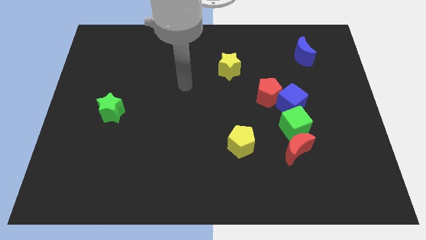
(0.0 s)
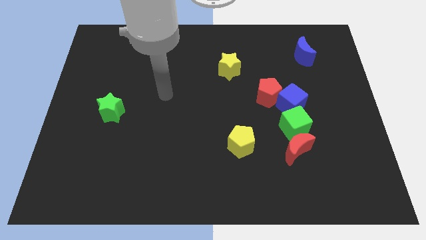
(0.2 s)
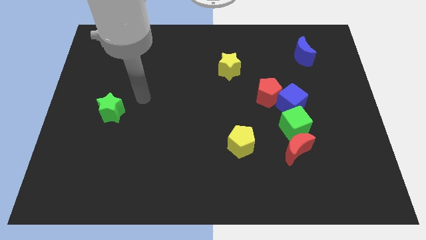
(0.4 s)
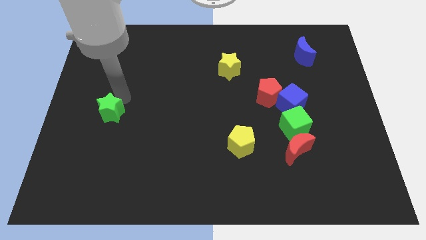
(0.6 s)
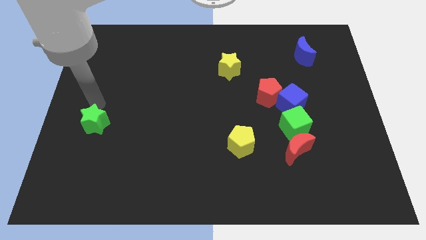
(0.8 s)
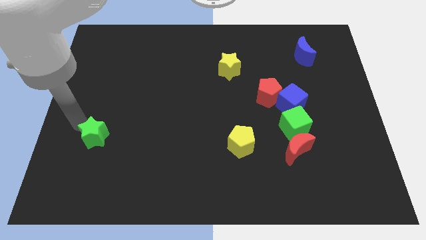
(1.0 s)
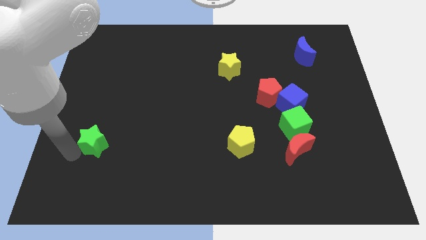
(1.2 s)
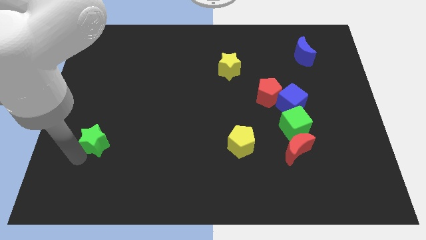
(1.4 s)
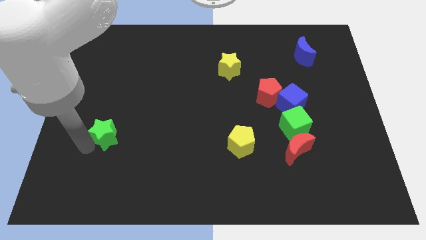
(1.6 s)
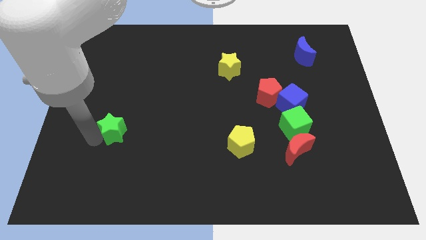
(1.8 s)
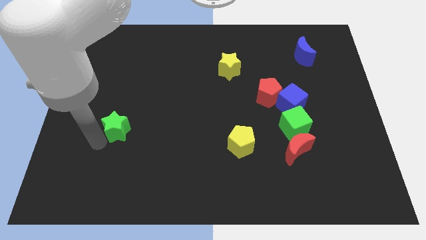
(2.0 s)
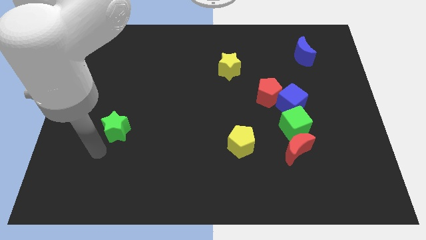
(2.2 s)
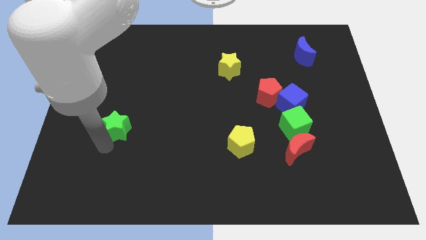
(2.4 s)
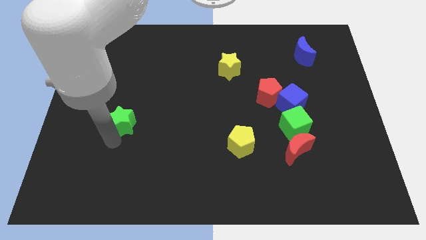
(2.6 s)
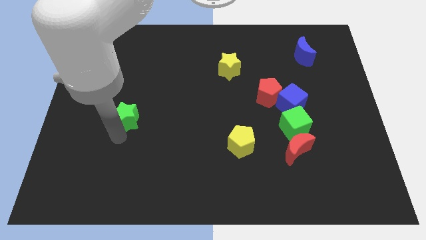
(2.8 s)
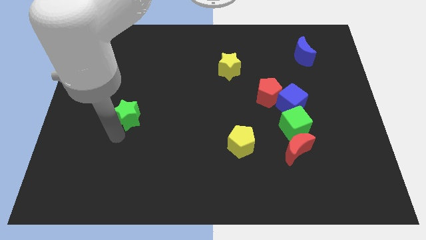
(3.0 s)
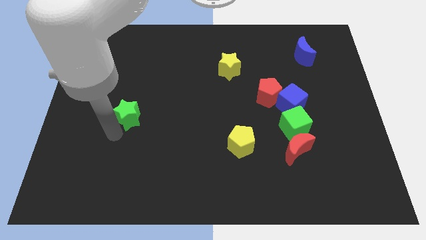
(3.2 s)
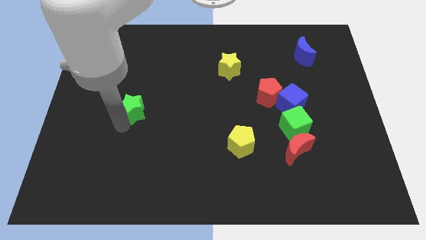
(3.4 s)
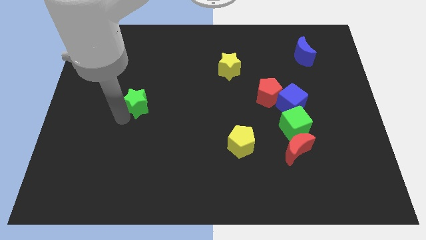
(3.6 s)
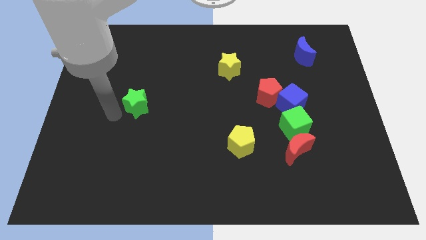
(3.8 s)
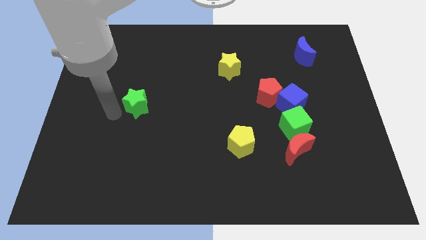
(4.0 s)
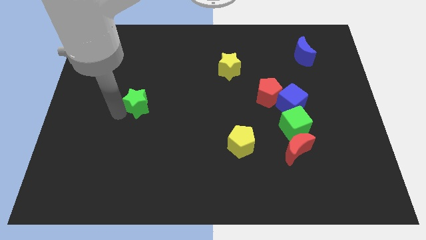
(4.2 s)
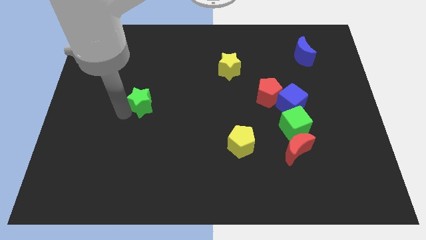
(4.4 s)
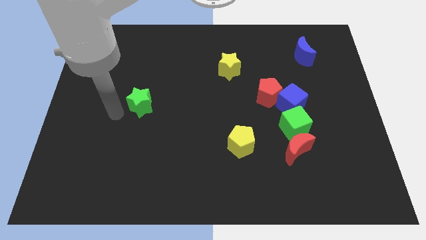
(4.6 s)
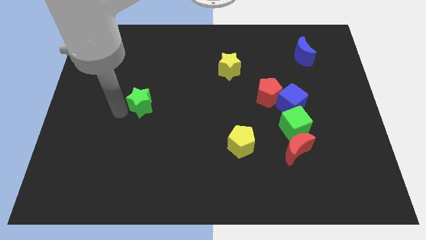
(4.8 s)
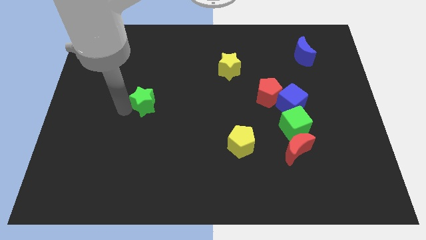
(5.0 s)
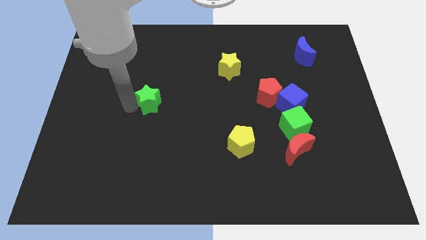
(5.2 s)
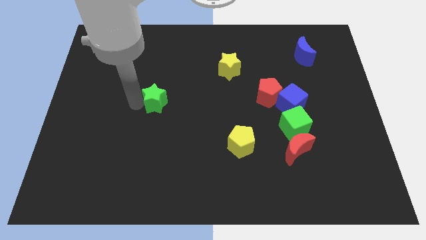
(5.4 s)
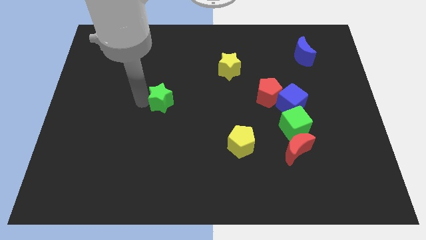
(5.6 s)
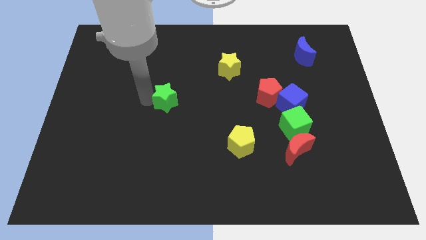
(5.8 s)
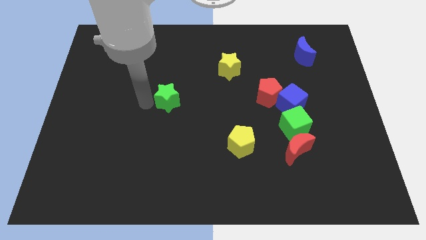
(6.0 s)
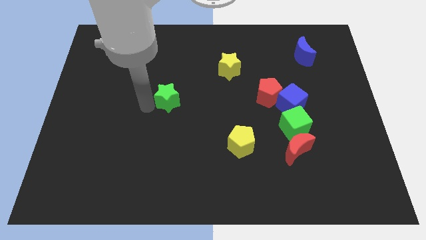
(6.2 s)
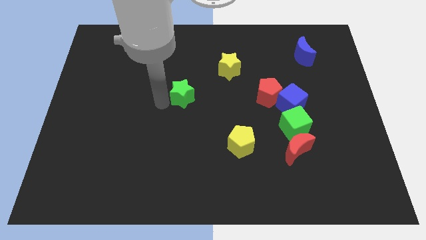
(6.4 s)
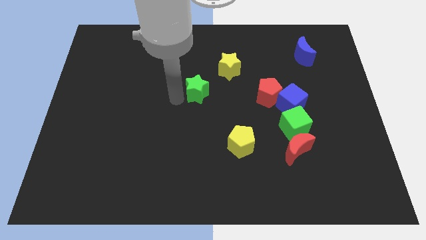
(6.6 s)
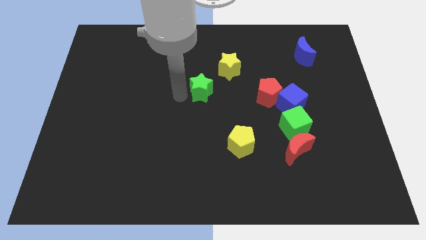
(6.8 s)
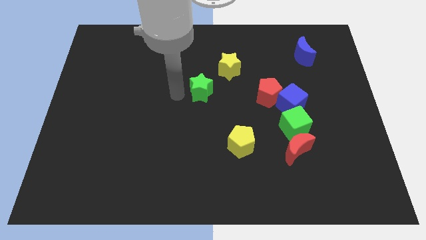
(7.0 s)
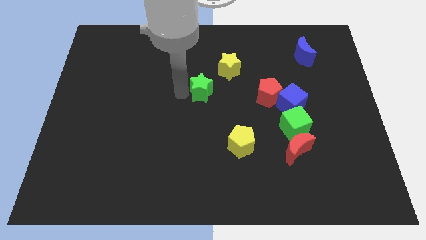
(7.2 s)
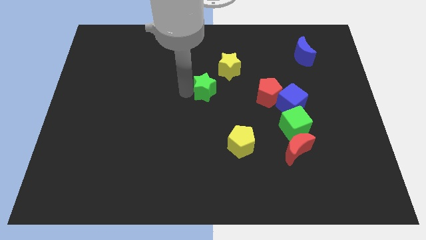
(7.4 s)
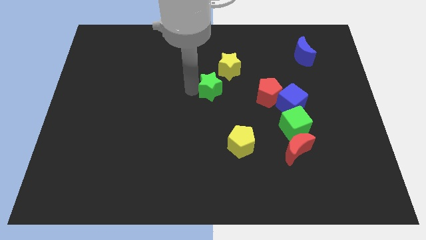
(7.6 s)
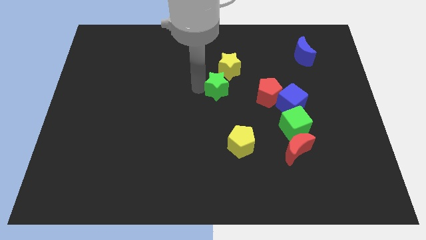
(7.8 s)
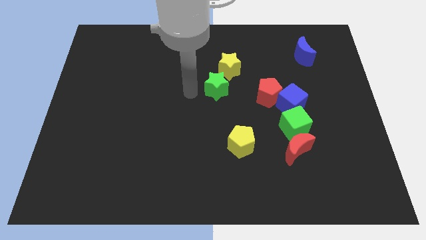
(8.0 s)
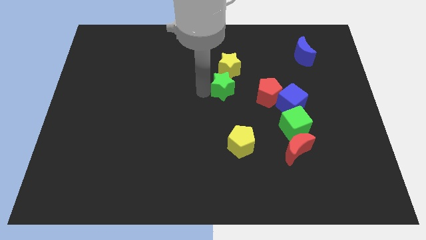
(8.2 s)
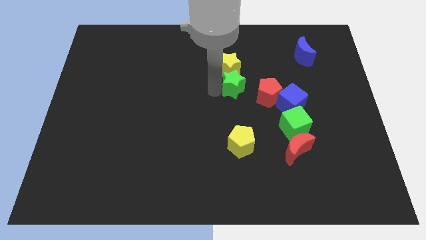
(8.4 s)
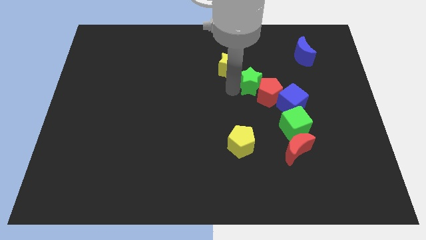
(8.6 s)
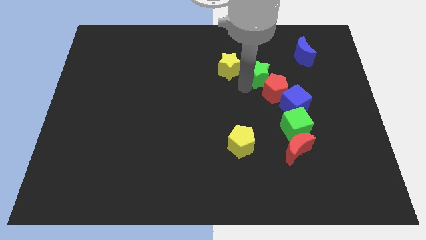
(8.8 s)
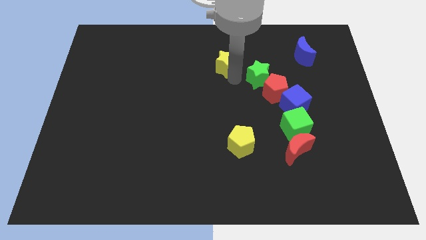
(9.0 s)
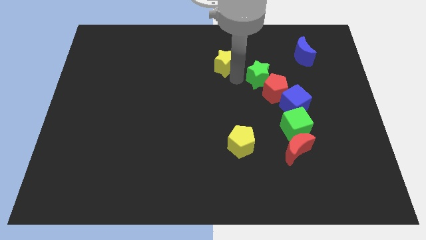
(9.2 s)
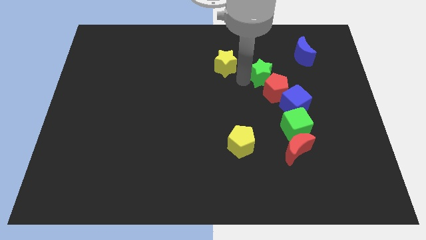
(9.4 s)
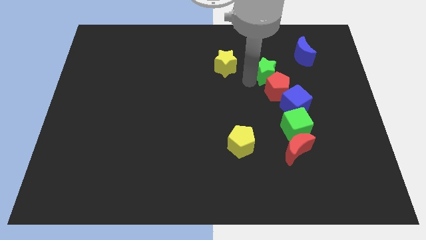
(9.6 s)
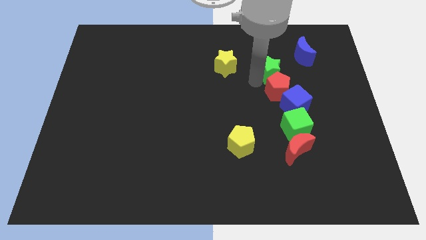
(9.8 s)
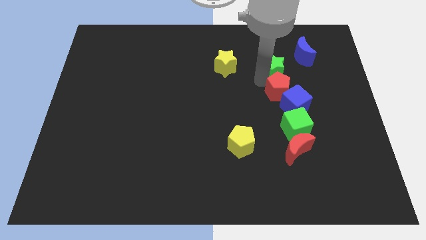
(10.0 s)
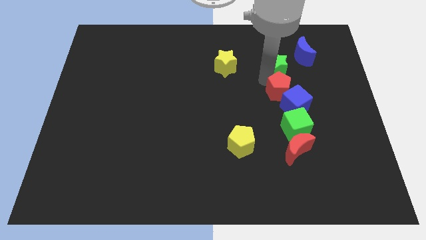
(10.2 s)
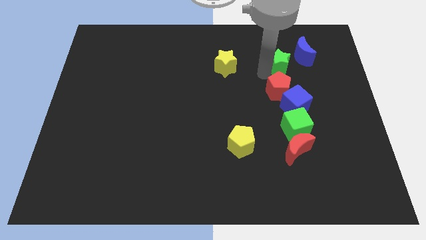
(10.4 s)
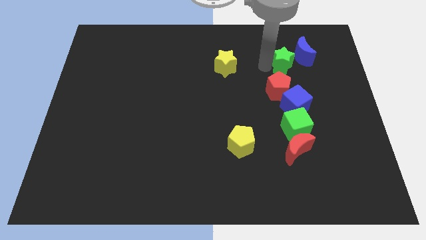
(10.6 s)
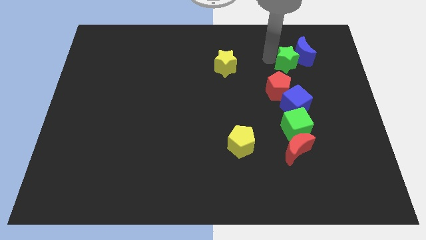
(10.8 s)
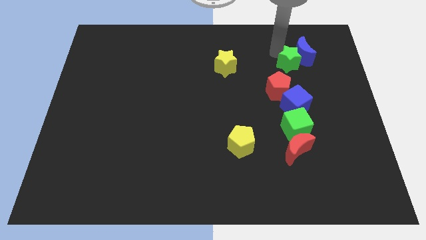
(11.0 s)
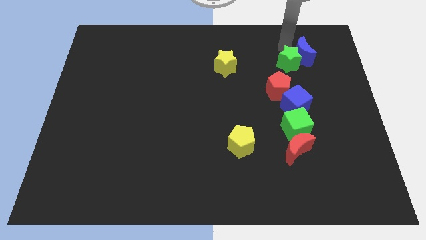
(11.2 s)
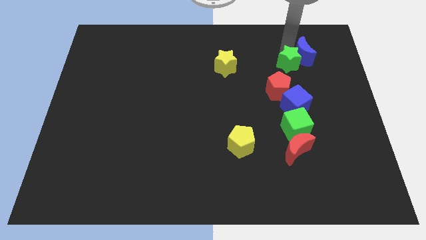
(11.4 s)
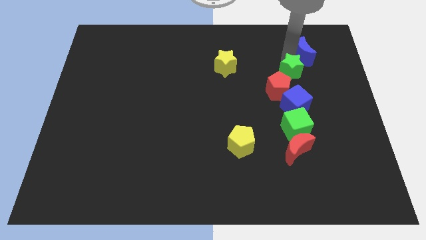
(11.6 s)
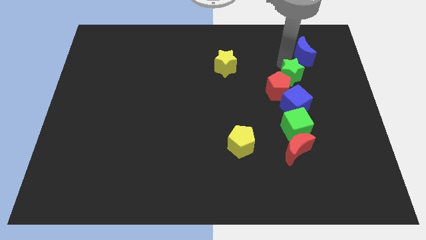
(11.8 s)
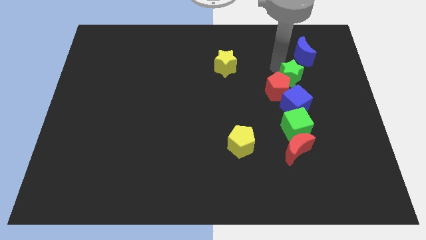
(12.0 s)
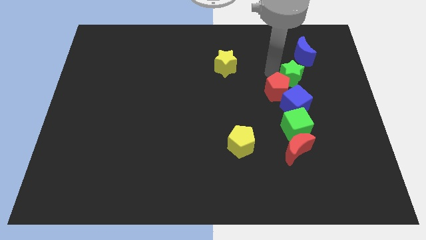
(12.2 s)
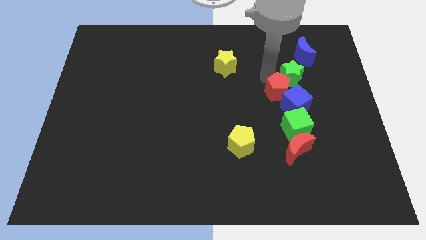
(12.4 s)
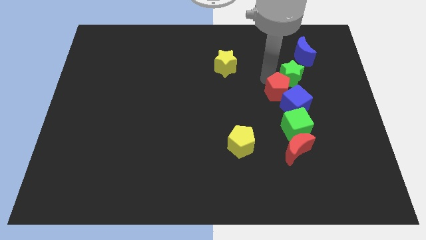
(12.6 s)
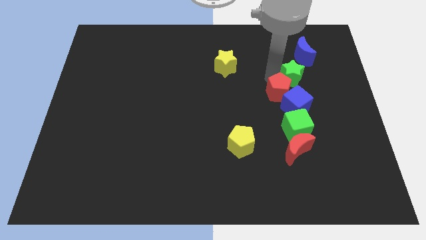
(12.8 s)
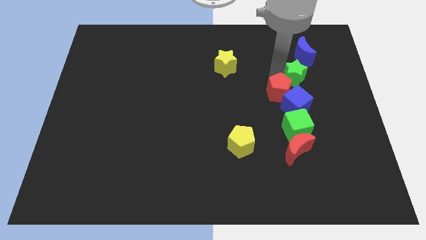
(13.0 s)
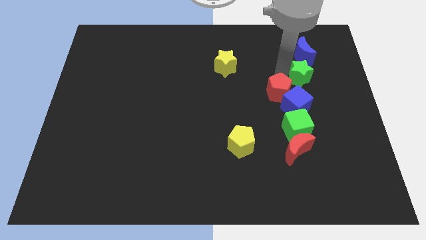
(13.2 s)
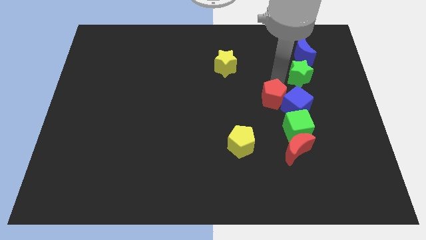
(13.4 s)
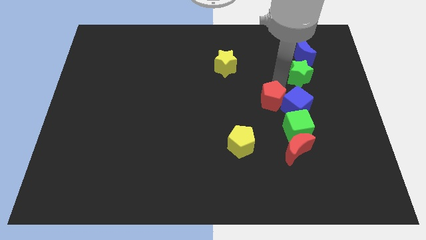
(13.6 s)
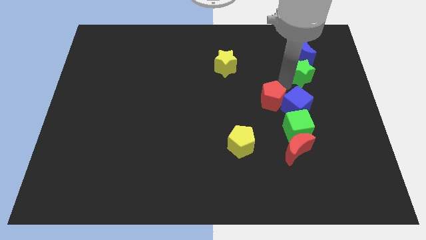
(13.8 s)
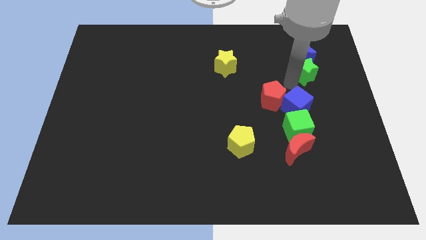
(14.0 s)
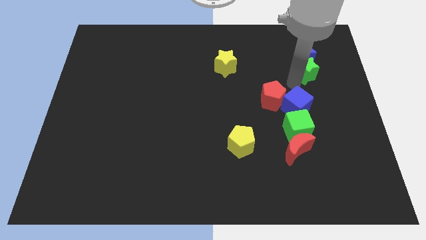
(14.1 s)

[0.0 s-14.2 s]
slide the green star to the bottom right of the blue moon

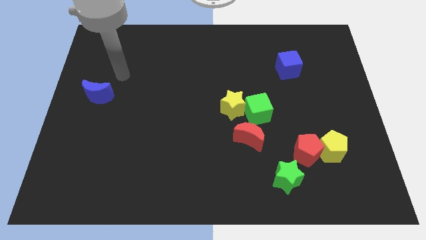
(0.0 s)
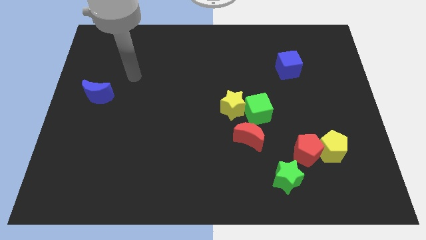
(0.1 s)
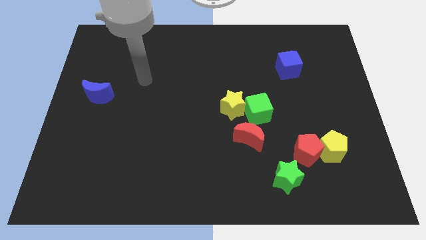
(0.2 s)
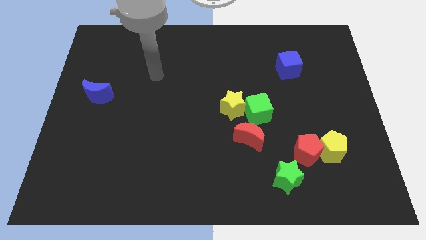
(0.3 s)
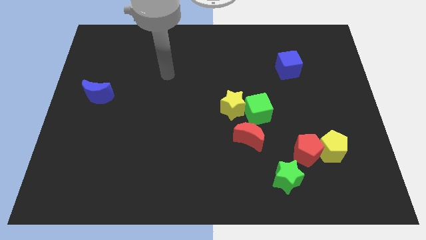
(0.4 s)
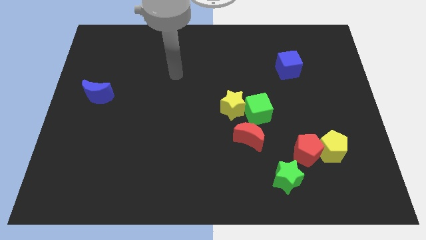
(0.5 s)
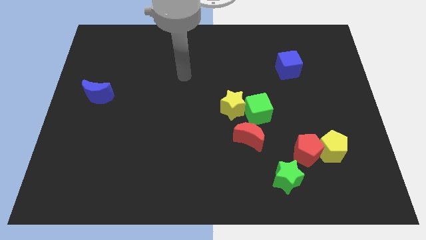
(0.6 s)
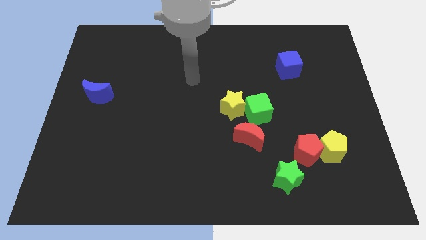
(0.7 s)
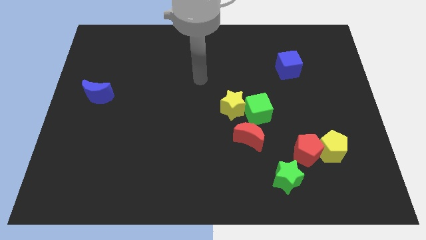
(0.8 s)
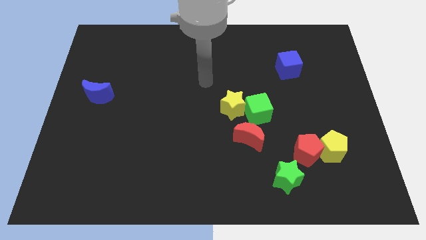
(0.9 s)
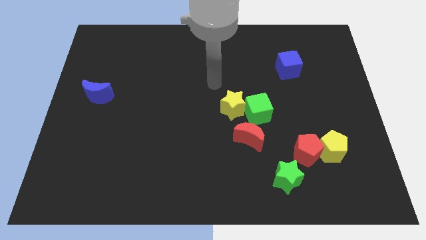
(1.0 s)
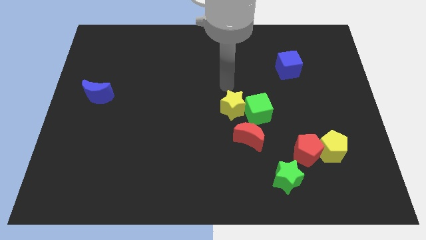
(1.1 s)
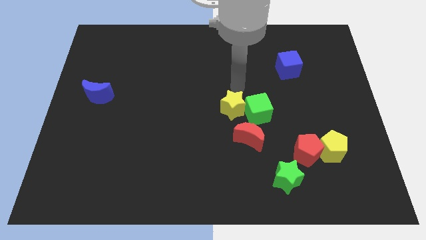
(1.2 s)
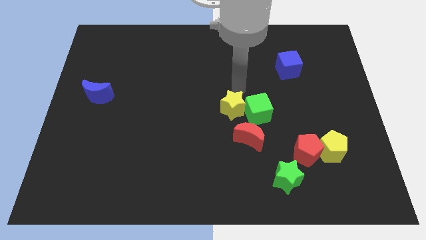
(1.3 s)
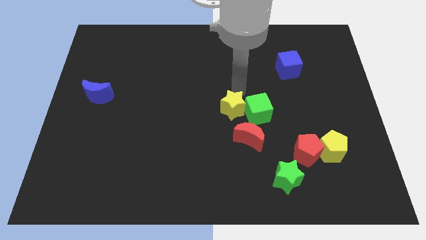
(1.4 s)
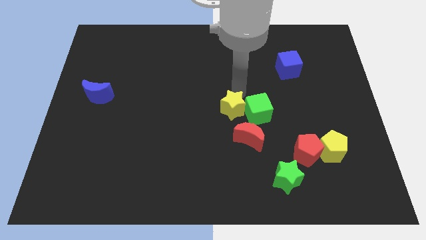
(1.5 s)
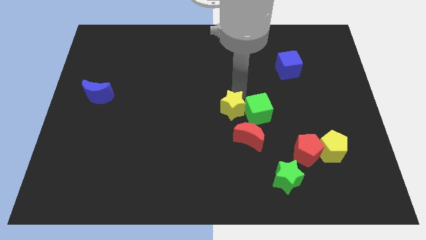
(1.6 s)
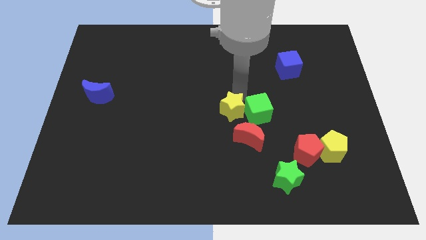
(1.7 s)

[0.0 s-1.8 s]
put the yellow star to the bottom left of the green cube
